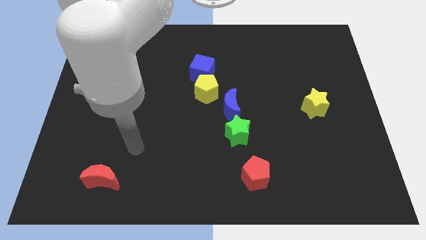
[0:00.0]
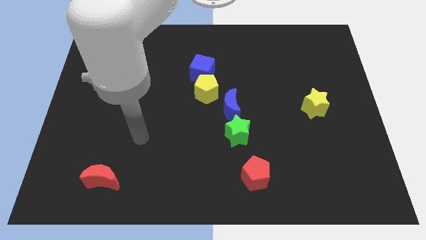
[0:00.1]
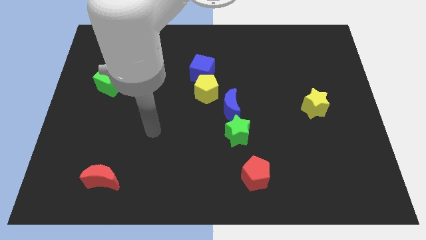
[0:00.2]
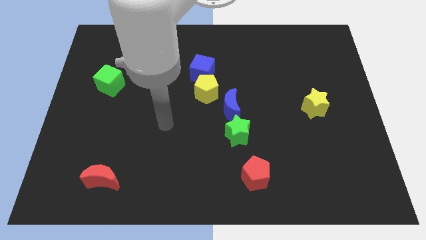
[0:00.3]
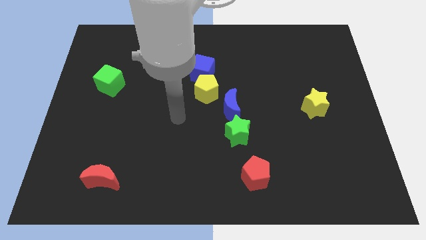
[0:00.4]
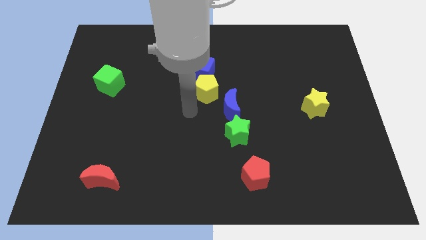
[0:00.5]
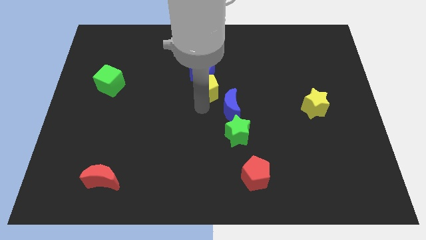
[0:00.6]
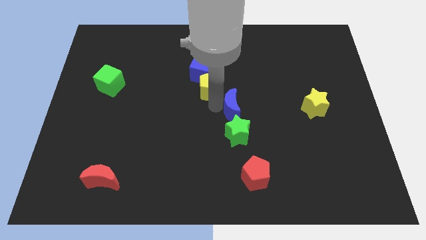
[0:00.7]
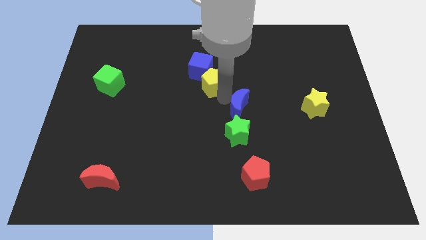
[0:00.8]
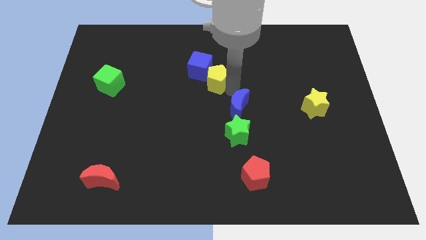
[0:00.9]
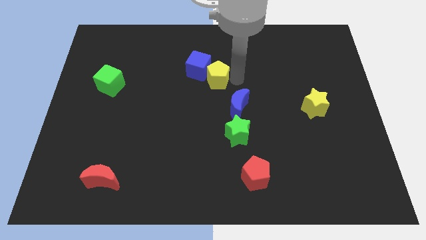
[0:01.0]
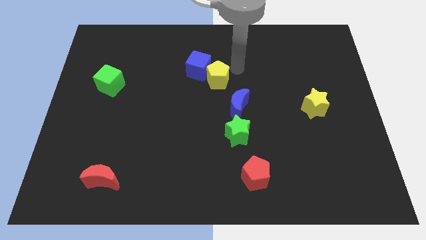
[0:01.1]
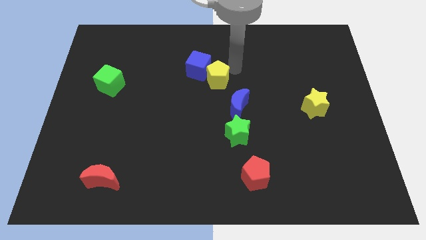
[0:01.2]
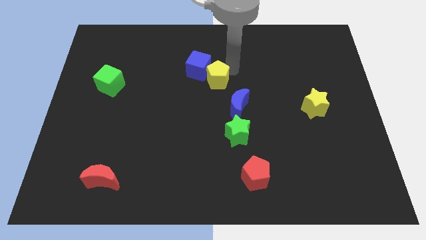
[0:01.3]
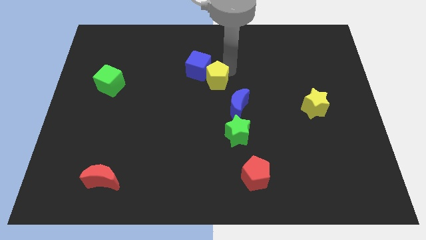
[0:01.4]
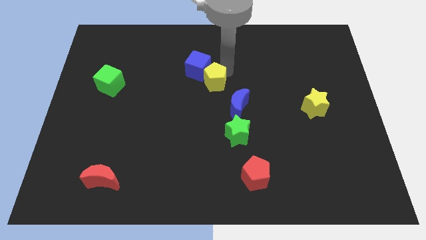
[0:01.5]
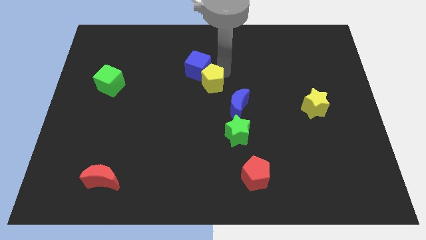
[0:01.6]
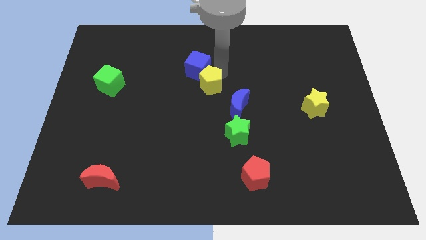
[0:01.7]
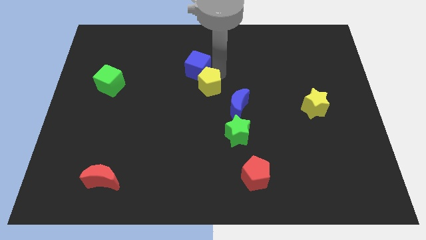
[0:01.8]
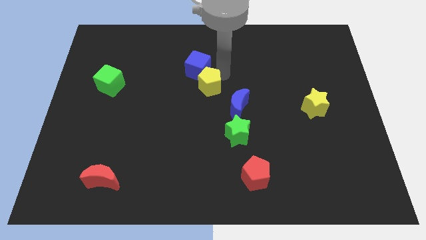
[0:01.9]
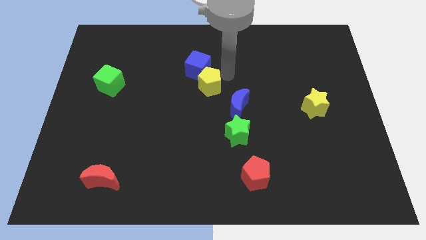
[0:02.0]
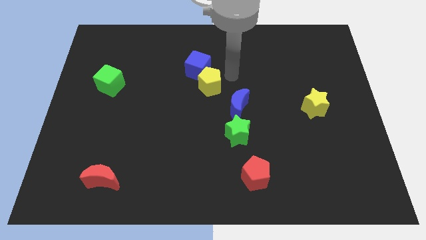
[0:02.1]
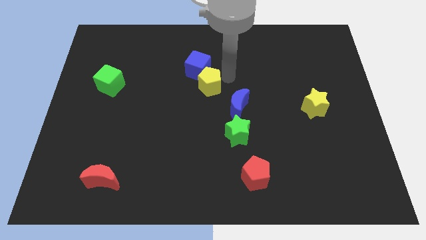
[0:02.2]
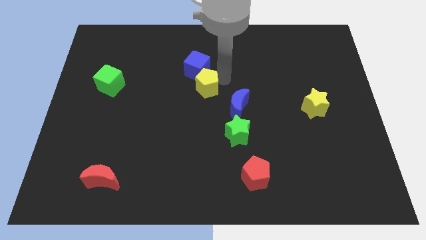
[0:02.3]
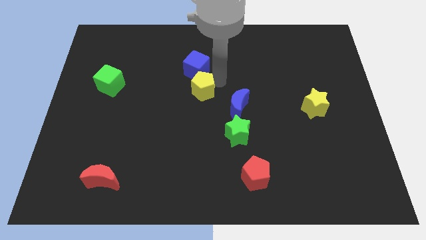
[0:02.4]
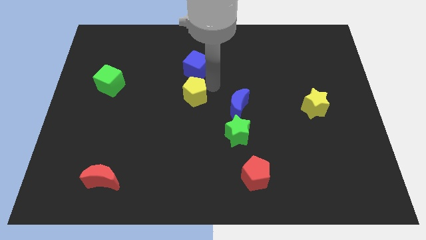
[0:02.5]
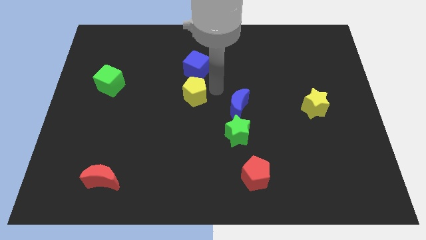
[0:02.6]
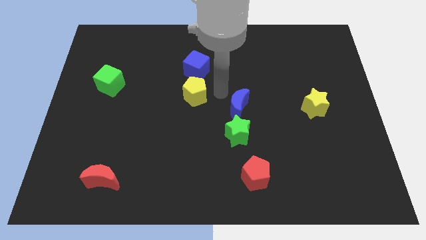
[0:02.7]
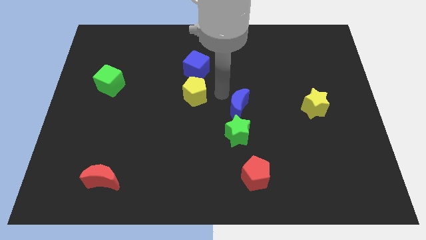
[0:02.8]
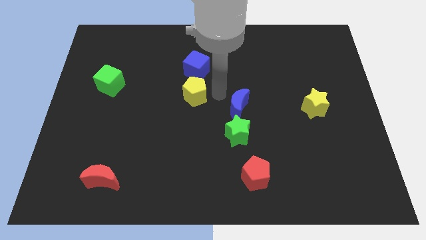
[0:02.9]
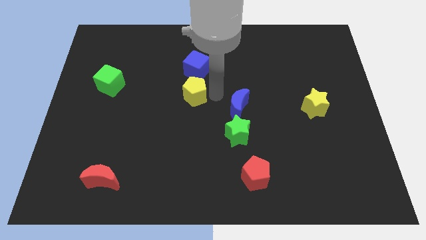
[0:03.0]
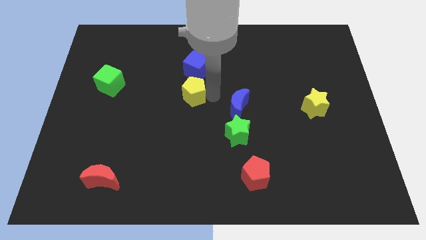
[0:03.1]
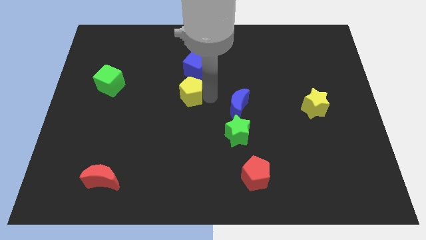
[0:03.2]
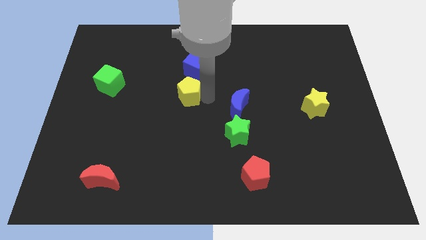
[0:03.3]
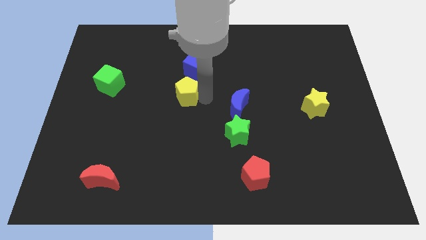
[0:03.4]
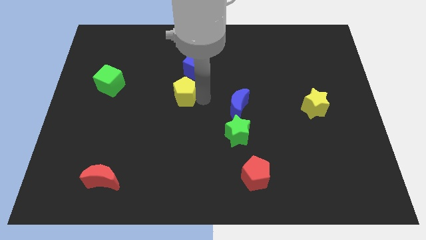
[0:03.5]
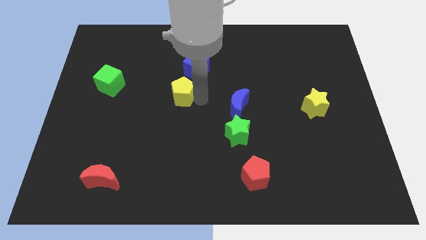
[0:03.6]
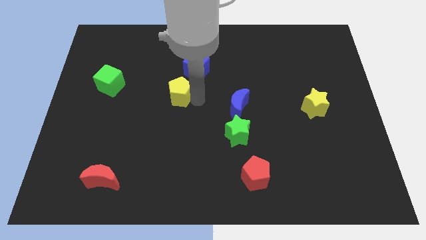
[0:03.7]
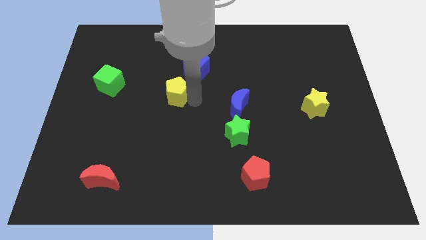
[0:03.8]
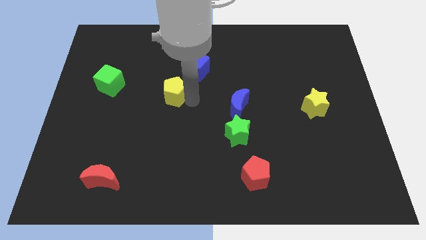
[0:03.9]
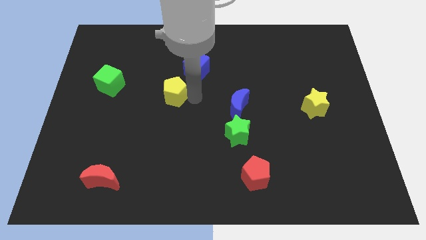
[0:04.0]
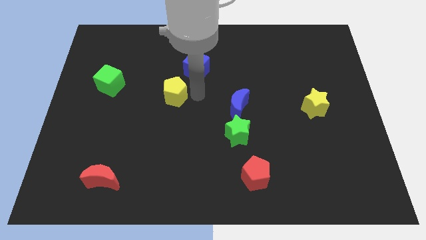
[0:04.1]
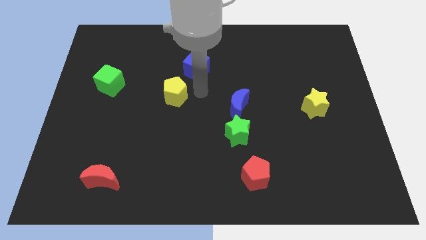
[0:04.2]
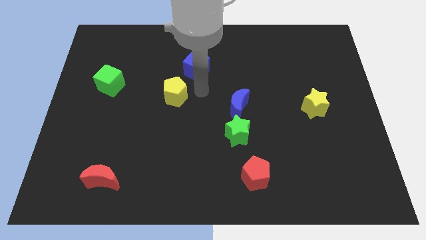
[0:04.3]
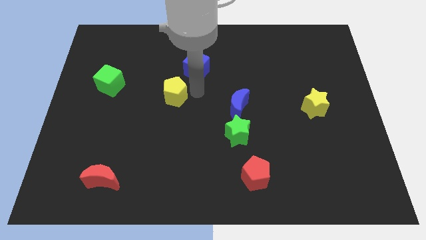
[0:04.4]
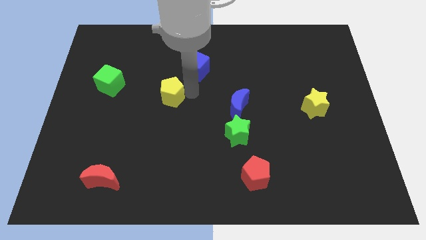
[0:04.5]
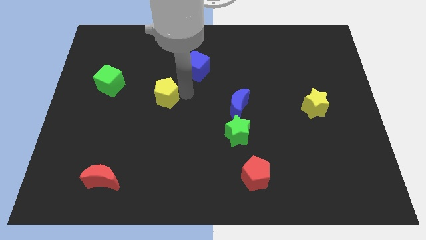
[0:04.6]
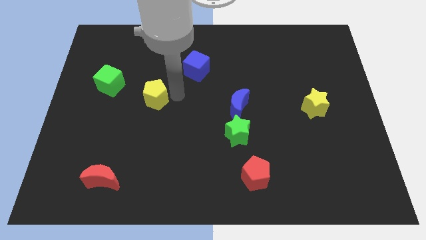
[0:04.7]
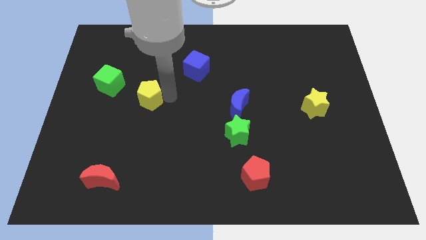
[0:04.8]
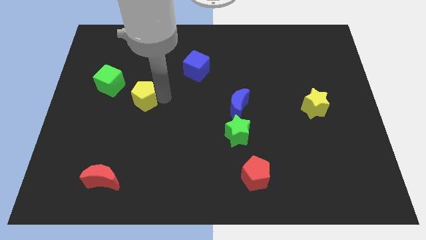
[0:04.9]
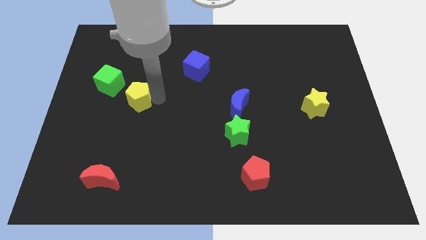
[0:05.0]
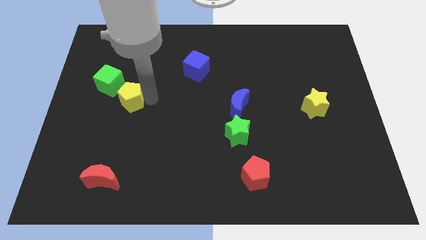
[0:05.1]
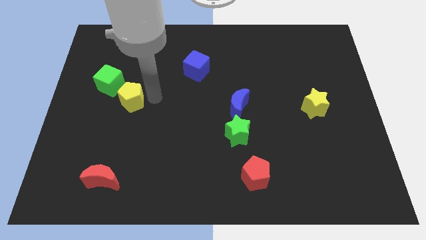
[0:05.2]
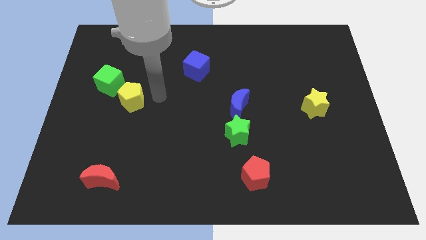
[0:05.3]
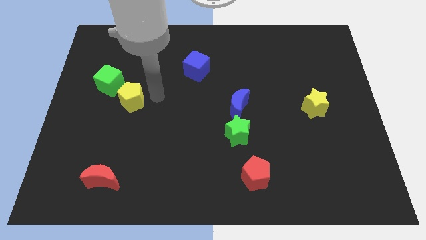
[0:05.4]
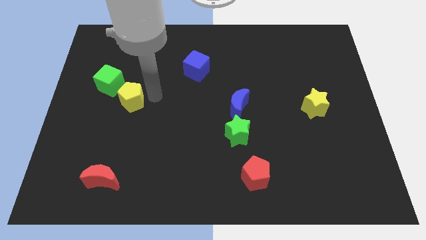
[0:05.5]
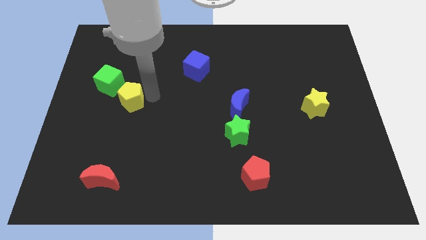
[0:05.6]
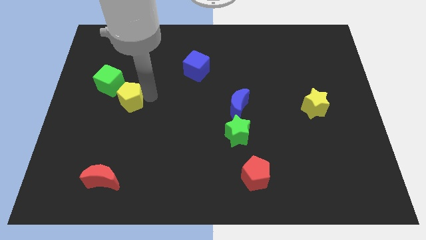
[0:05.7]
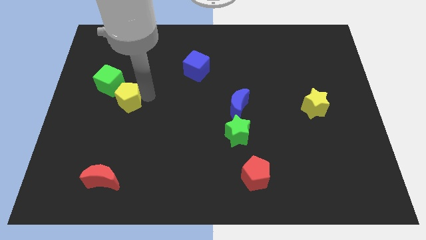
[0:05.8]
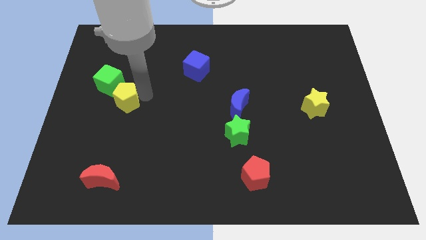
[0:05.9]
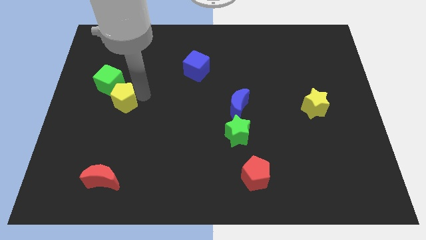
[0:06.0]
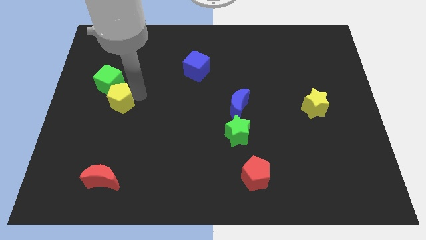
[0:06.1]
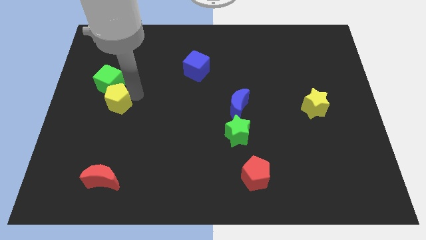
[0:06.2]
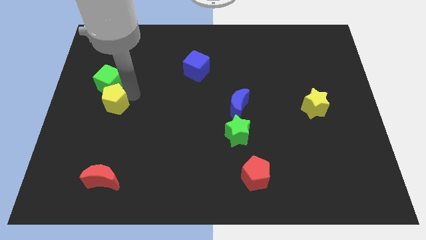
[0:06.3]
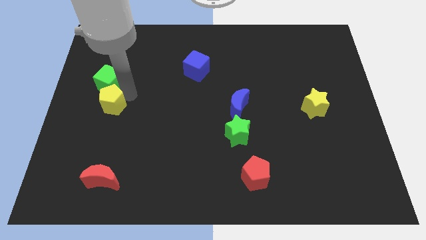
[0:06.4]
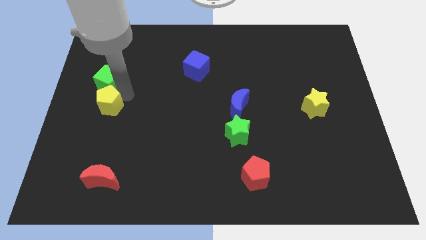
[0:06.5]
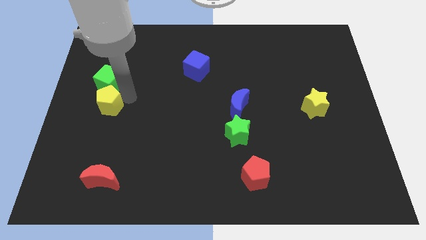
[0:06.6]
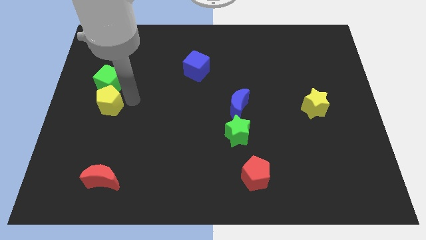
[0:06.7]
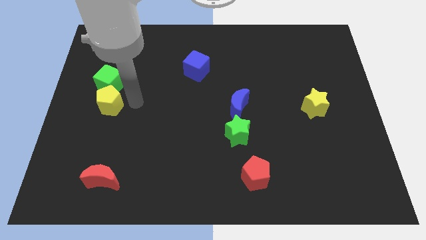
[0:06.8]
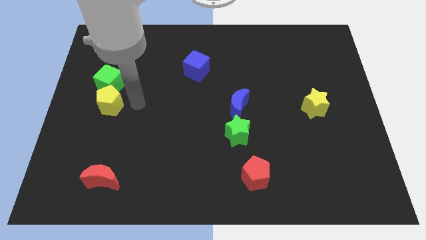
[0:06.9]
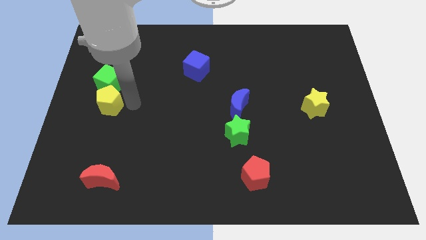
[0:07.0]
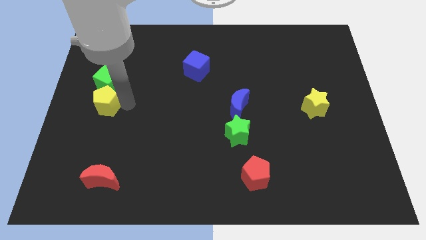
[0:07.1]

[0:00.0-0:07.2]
move the yellow pentagon to the left side
